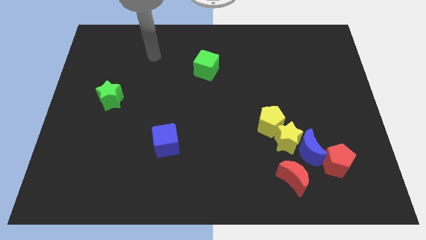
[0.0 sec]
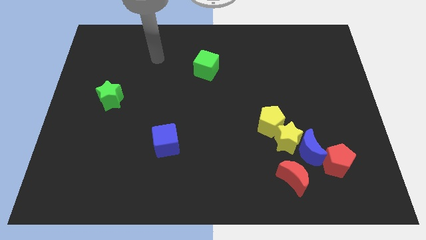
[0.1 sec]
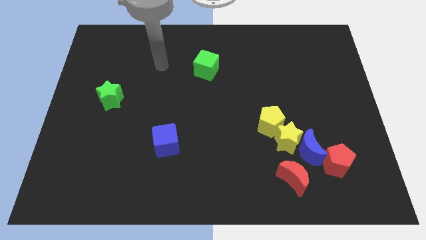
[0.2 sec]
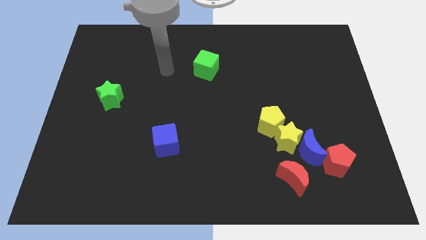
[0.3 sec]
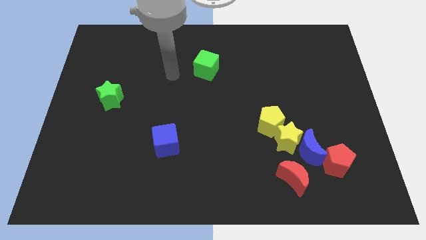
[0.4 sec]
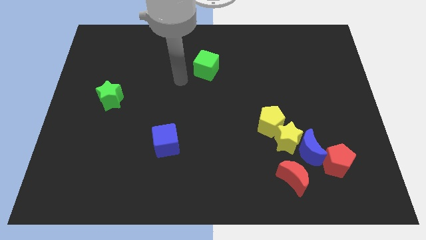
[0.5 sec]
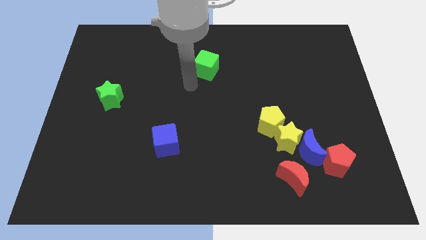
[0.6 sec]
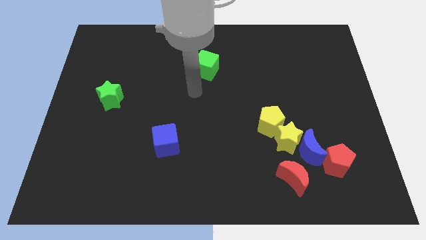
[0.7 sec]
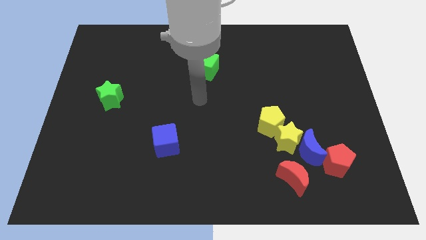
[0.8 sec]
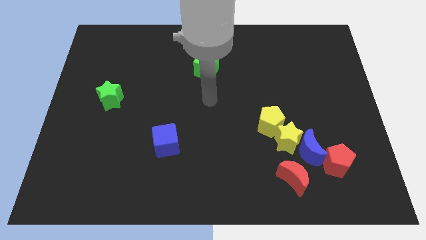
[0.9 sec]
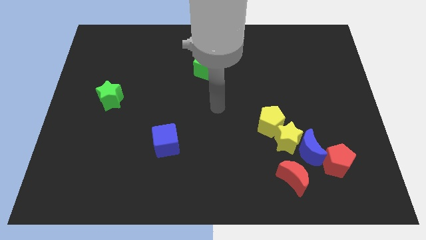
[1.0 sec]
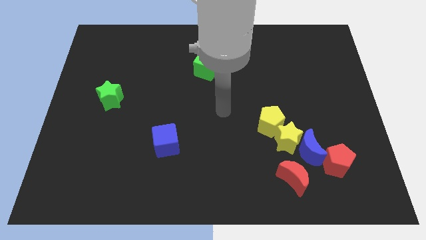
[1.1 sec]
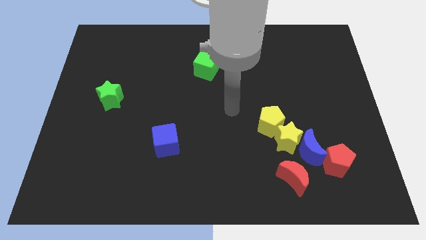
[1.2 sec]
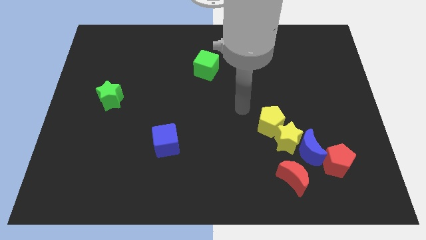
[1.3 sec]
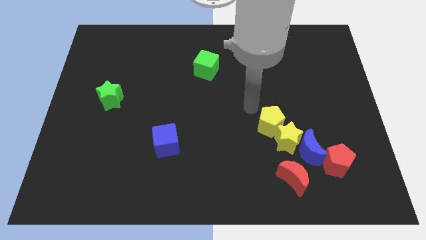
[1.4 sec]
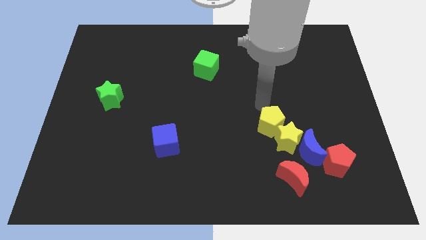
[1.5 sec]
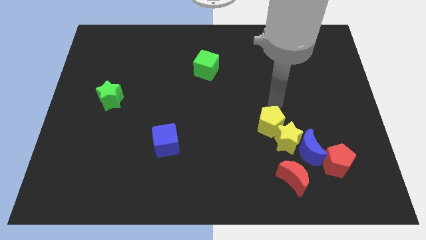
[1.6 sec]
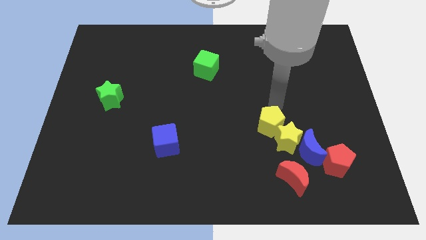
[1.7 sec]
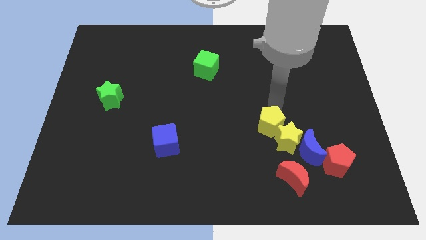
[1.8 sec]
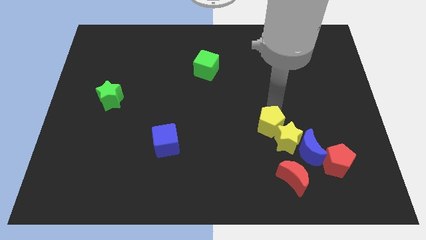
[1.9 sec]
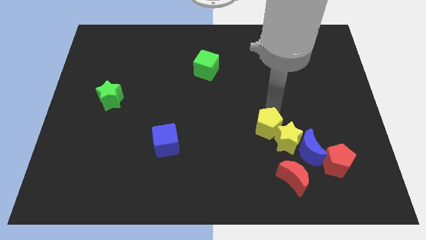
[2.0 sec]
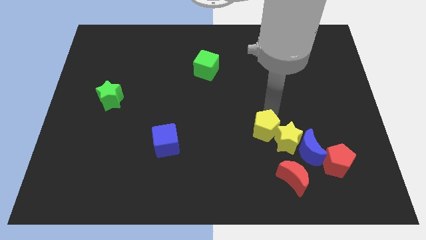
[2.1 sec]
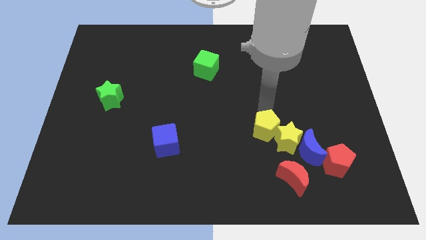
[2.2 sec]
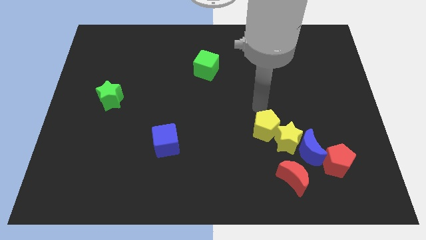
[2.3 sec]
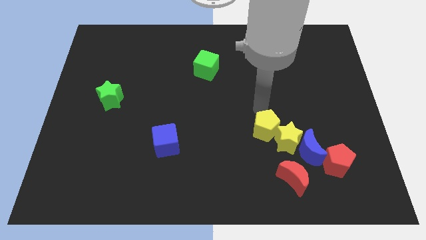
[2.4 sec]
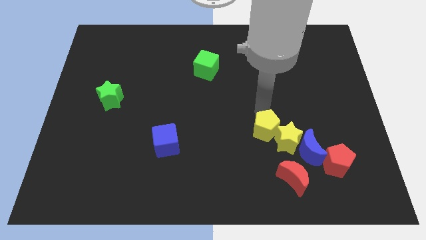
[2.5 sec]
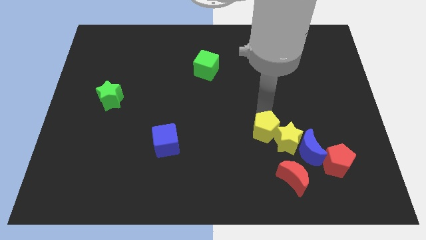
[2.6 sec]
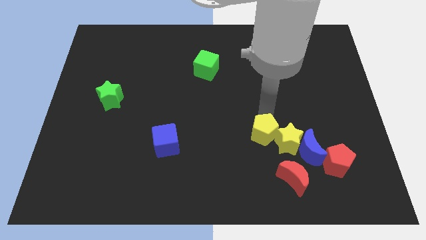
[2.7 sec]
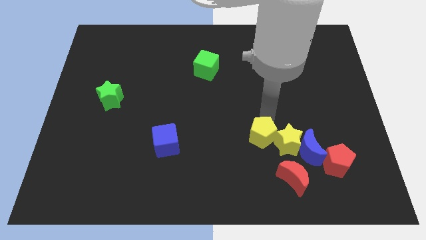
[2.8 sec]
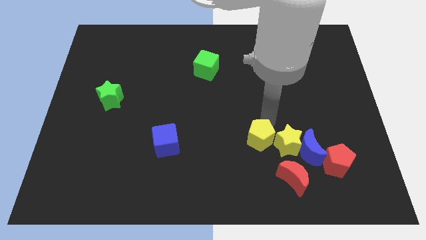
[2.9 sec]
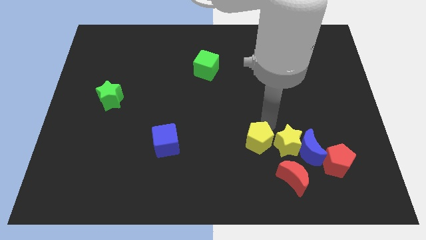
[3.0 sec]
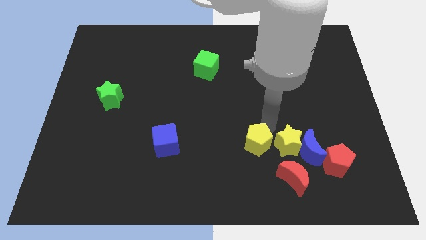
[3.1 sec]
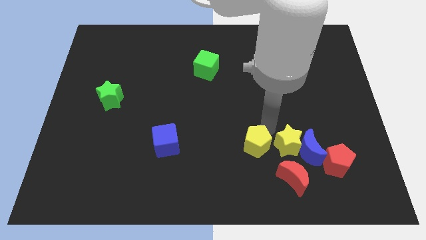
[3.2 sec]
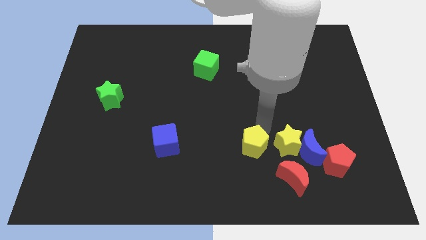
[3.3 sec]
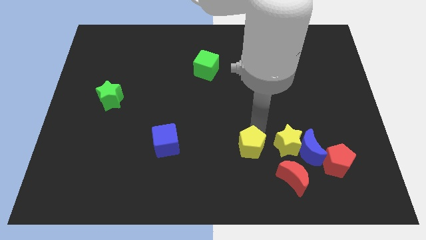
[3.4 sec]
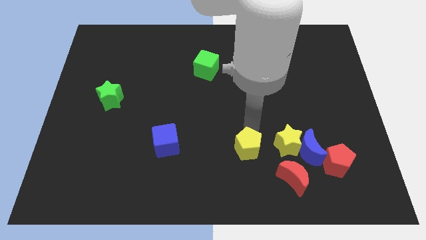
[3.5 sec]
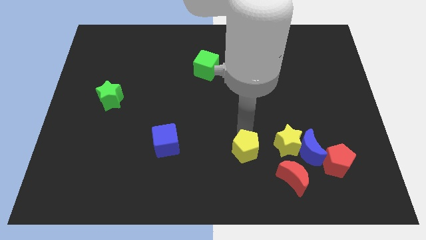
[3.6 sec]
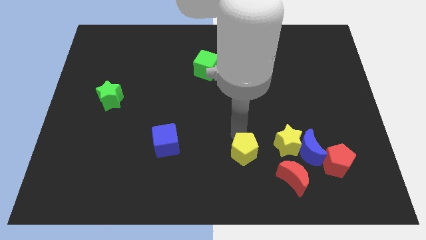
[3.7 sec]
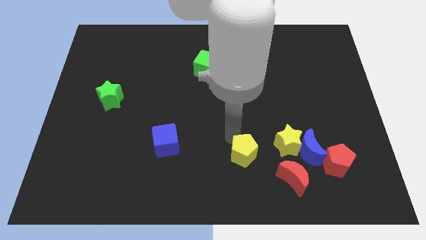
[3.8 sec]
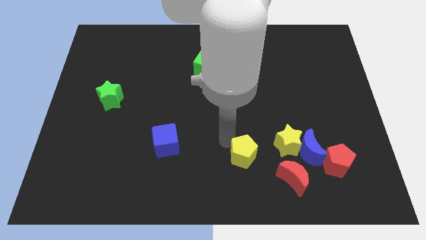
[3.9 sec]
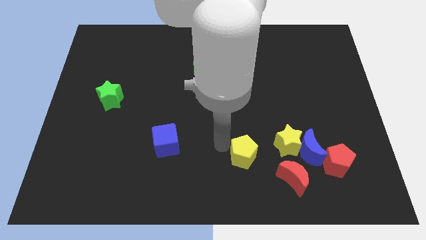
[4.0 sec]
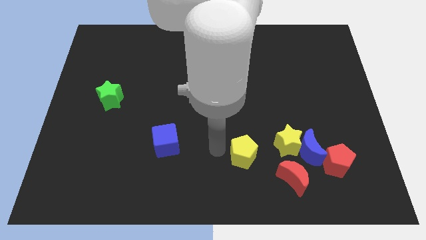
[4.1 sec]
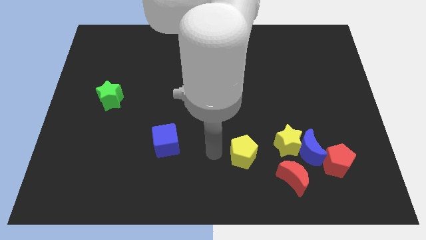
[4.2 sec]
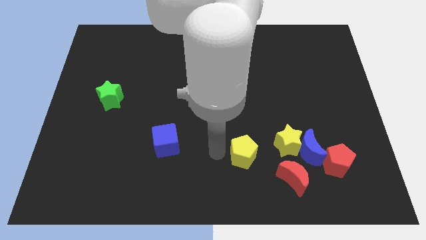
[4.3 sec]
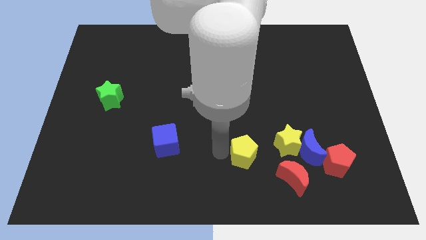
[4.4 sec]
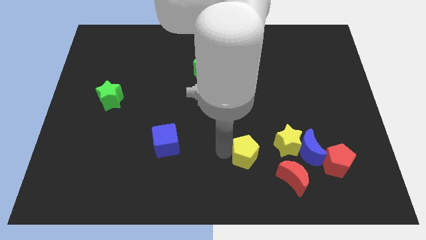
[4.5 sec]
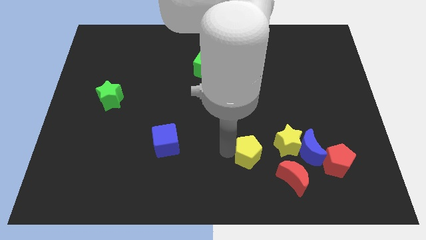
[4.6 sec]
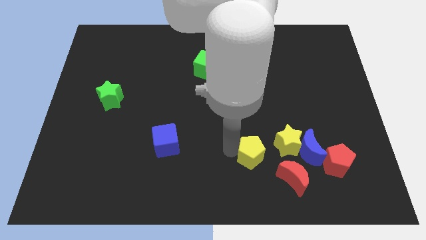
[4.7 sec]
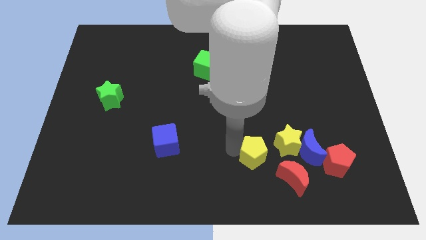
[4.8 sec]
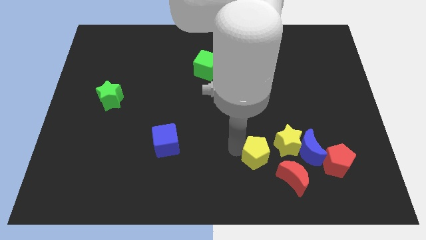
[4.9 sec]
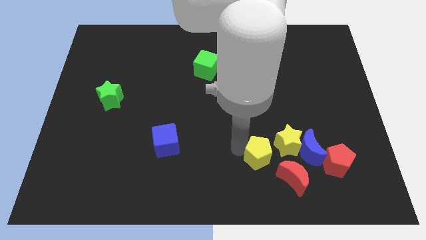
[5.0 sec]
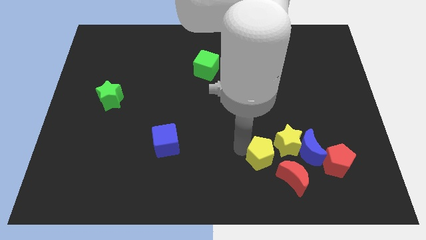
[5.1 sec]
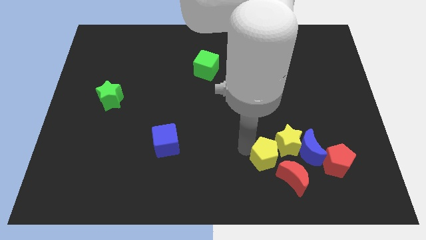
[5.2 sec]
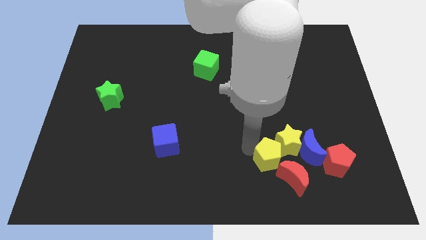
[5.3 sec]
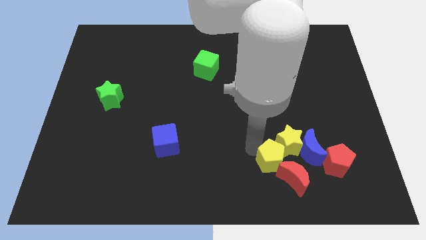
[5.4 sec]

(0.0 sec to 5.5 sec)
put the yellow pentagon next to the red moon

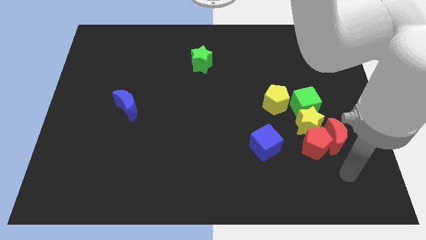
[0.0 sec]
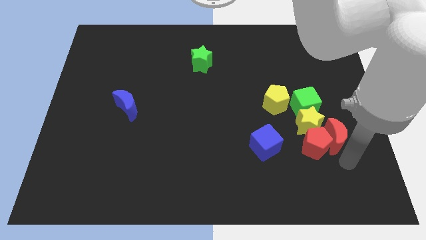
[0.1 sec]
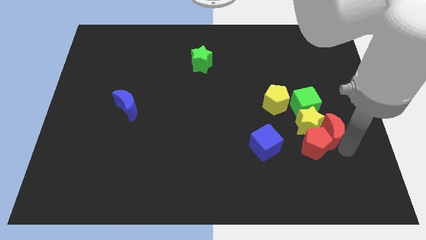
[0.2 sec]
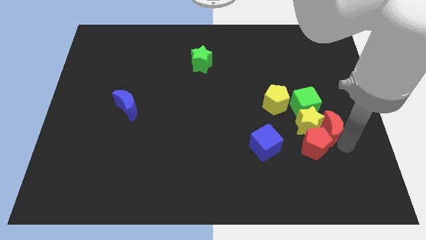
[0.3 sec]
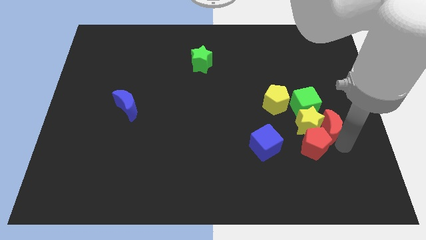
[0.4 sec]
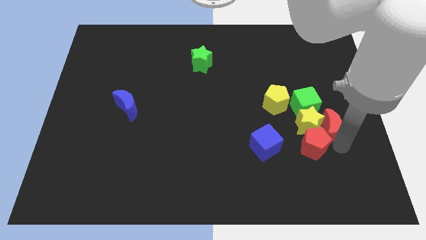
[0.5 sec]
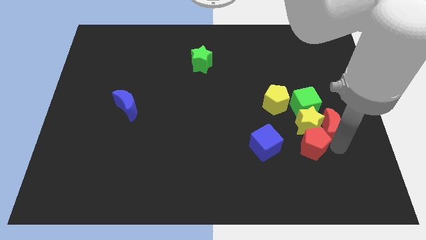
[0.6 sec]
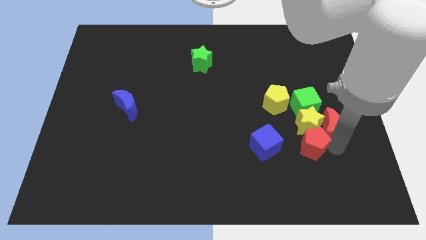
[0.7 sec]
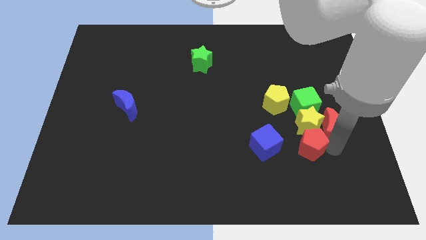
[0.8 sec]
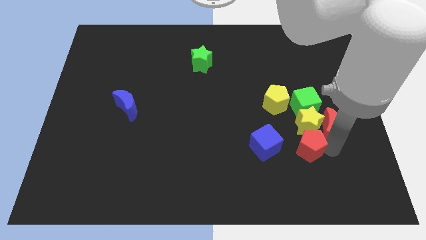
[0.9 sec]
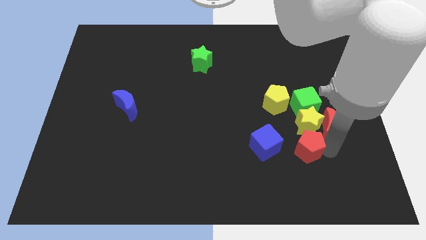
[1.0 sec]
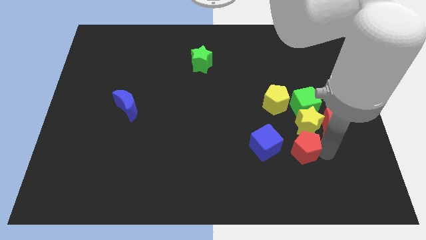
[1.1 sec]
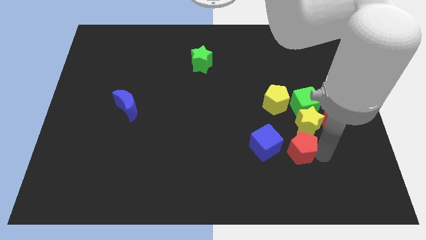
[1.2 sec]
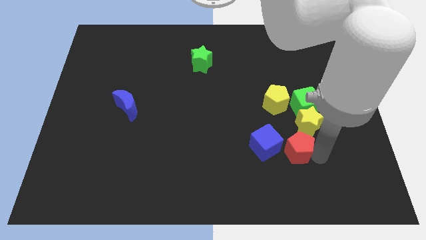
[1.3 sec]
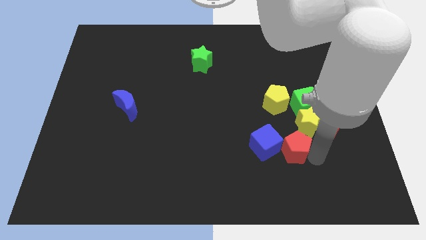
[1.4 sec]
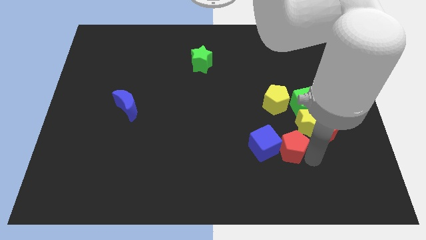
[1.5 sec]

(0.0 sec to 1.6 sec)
slide the red pentagon to the blue cube
